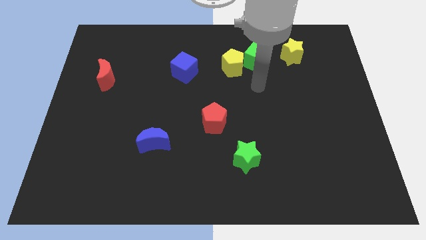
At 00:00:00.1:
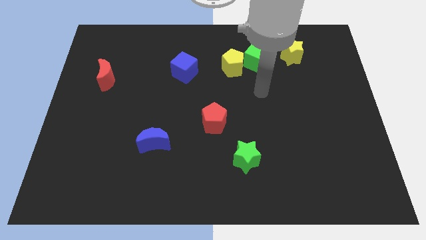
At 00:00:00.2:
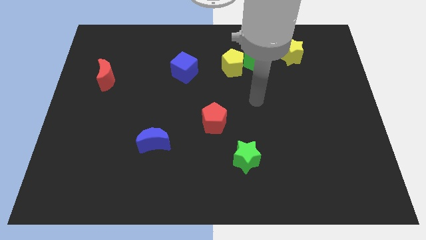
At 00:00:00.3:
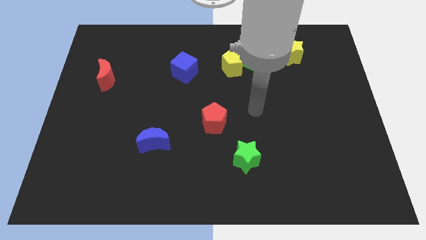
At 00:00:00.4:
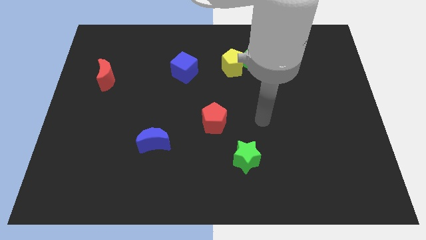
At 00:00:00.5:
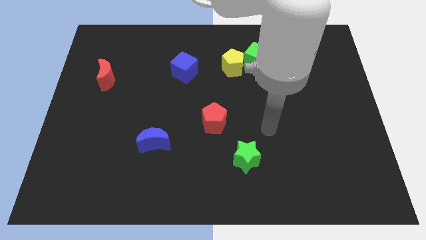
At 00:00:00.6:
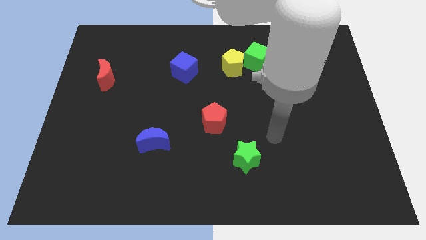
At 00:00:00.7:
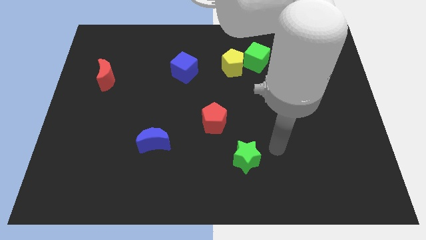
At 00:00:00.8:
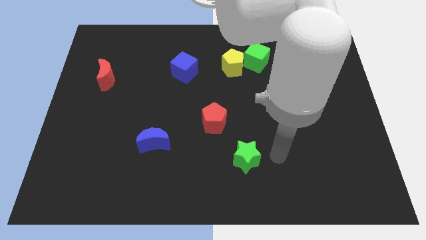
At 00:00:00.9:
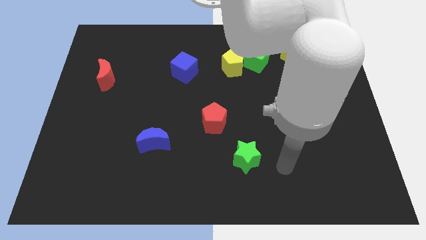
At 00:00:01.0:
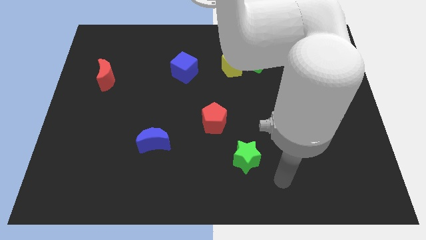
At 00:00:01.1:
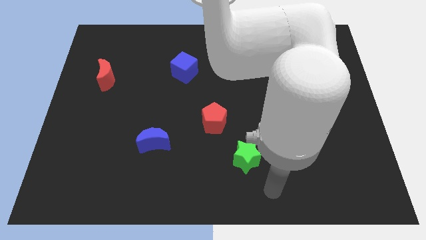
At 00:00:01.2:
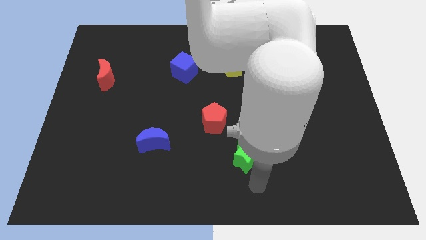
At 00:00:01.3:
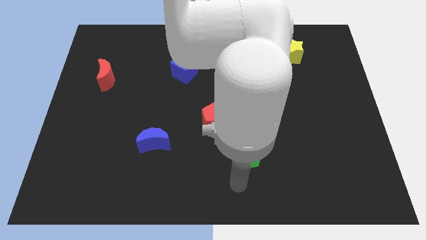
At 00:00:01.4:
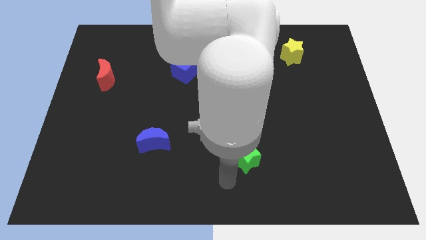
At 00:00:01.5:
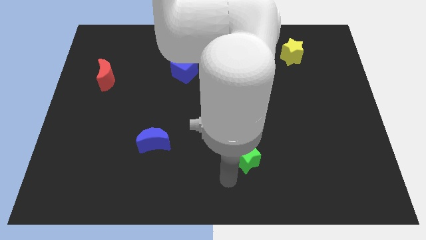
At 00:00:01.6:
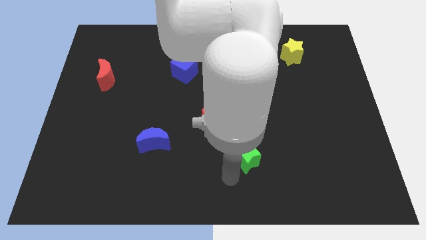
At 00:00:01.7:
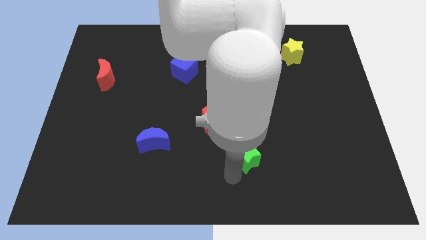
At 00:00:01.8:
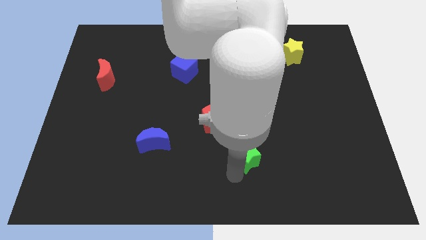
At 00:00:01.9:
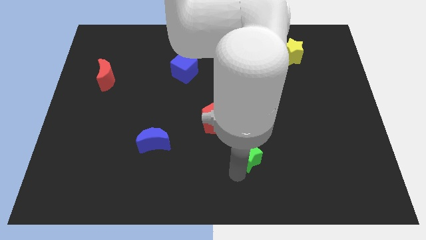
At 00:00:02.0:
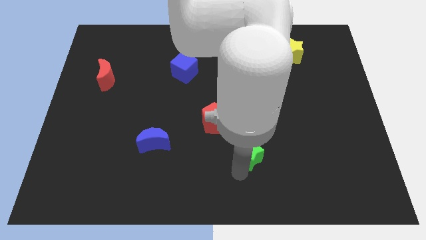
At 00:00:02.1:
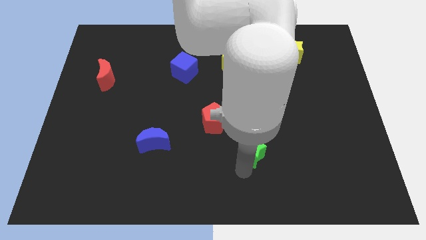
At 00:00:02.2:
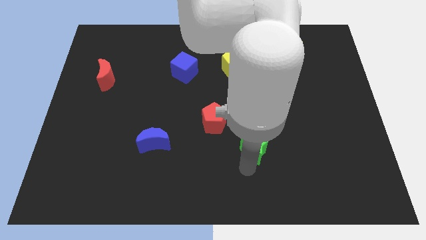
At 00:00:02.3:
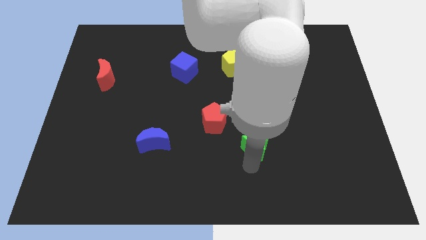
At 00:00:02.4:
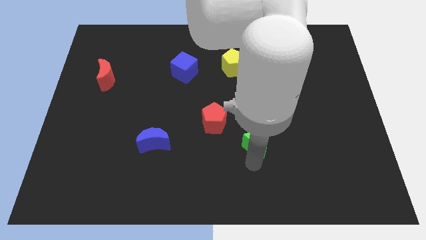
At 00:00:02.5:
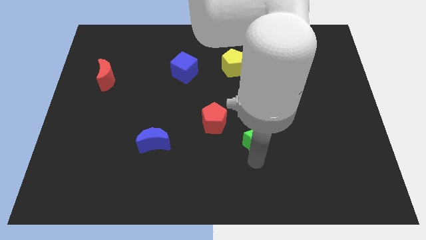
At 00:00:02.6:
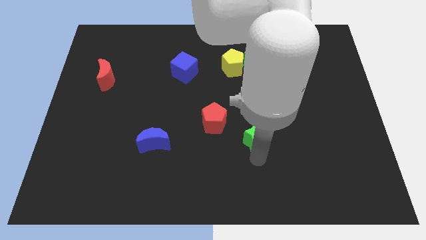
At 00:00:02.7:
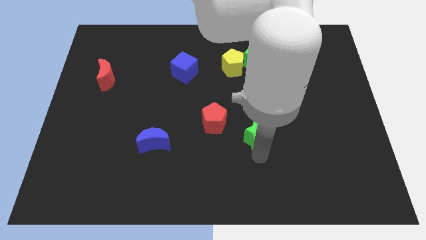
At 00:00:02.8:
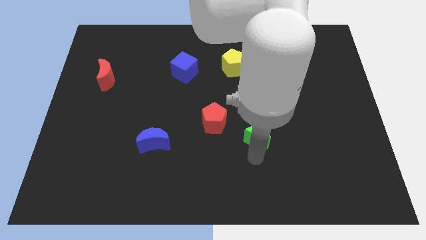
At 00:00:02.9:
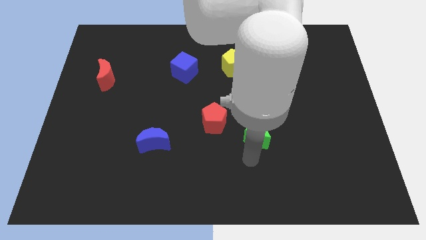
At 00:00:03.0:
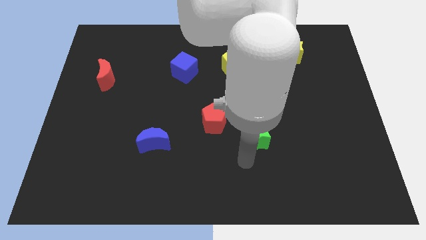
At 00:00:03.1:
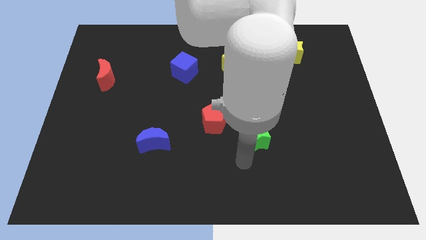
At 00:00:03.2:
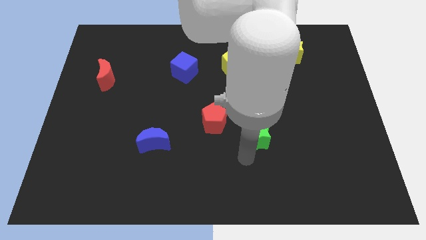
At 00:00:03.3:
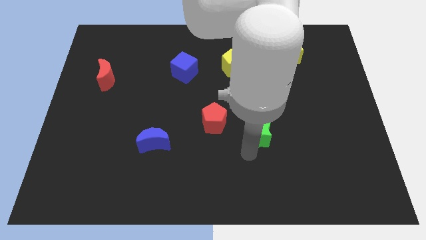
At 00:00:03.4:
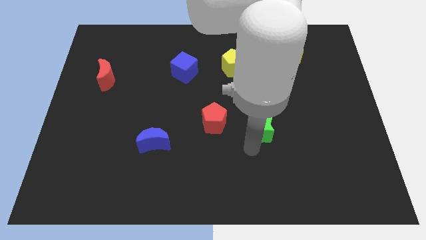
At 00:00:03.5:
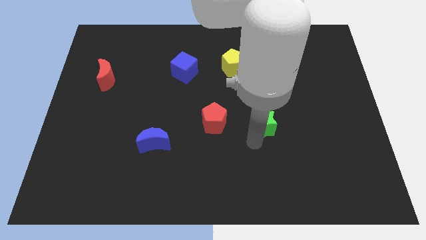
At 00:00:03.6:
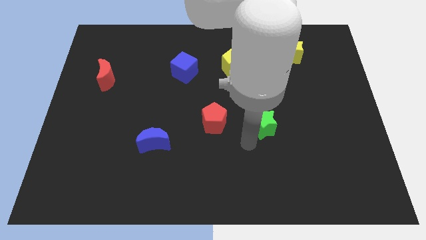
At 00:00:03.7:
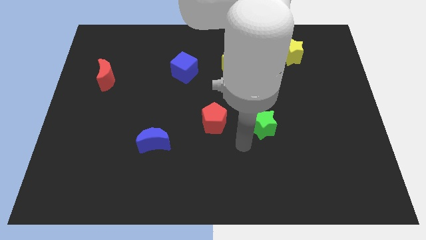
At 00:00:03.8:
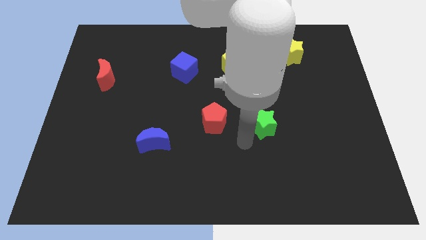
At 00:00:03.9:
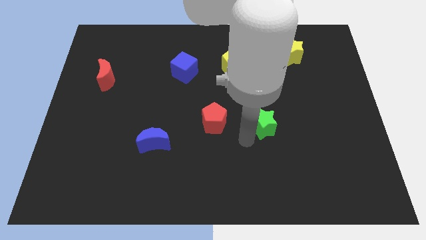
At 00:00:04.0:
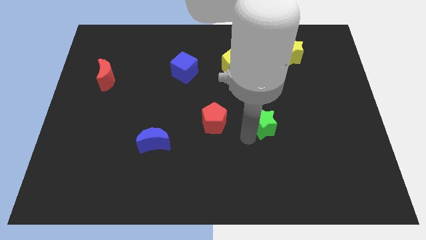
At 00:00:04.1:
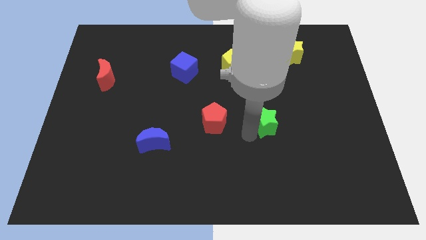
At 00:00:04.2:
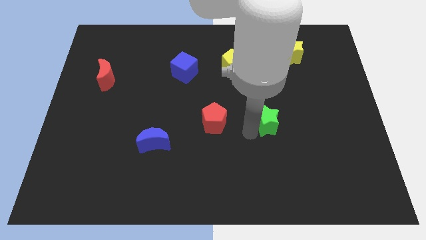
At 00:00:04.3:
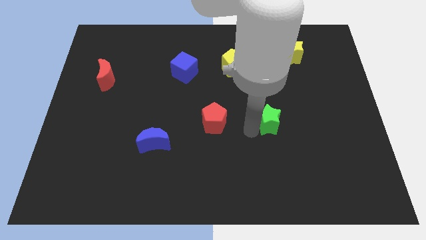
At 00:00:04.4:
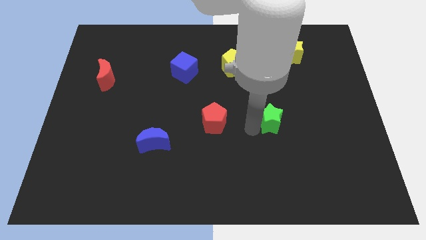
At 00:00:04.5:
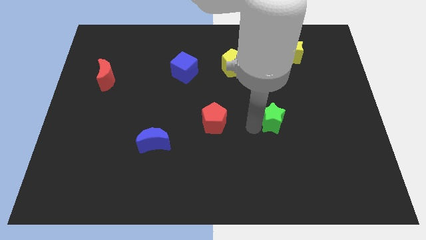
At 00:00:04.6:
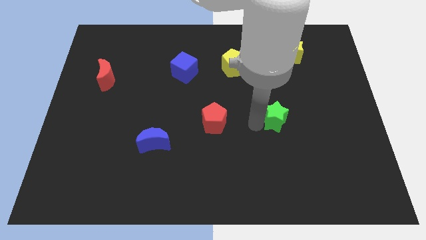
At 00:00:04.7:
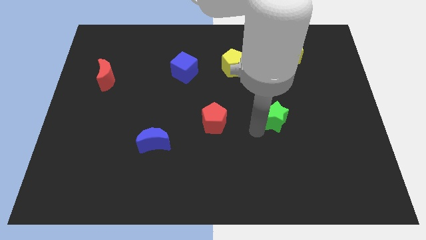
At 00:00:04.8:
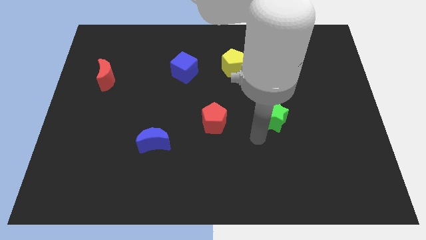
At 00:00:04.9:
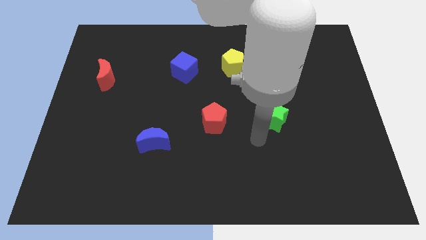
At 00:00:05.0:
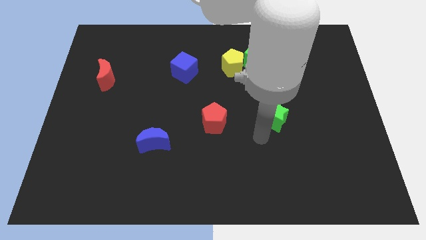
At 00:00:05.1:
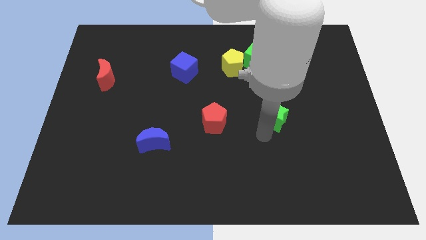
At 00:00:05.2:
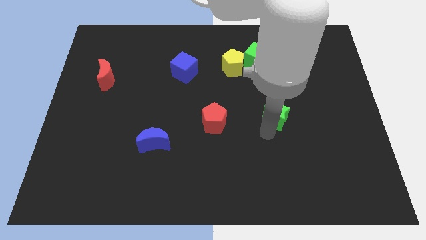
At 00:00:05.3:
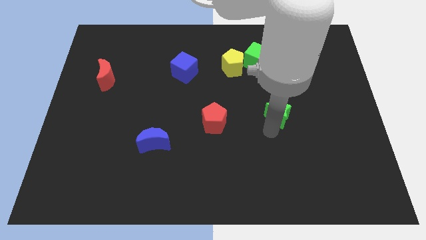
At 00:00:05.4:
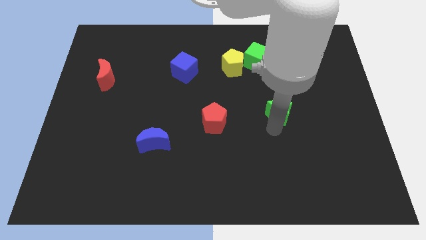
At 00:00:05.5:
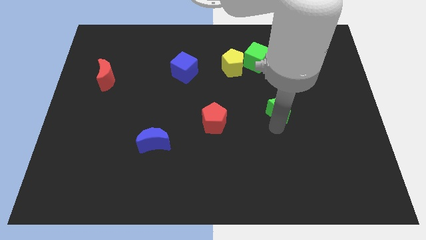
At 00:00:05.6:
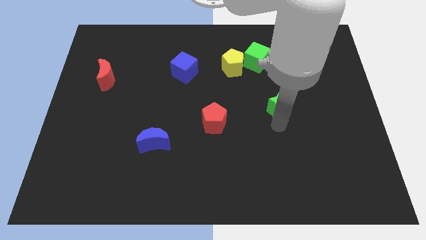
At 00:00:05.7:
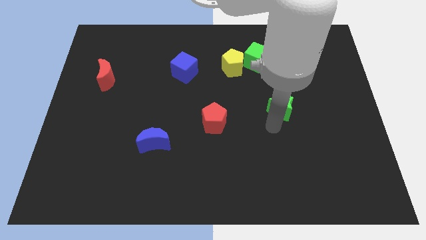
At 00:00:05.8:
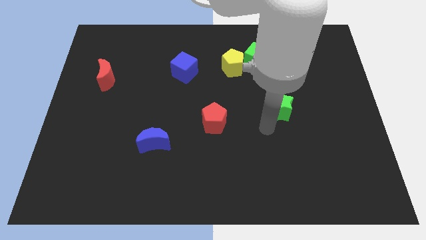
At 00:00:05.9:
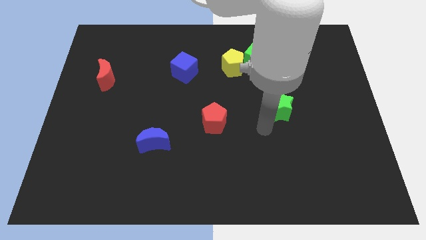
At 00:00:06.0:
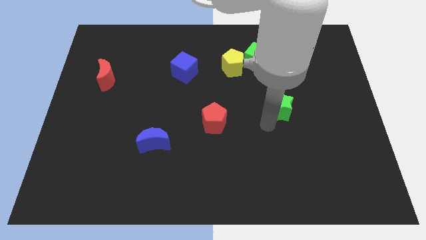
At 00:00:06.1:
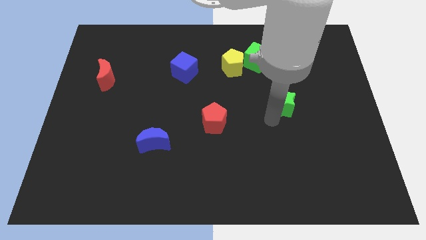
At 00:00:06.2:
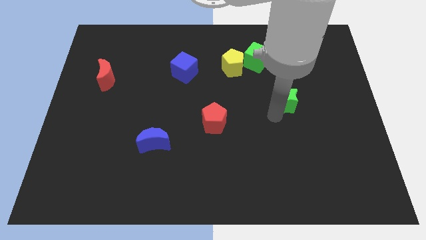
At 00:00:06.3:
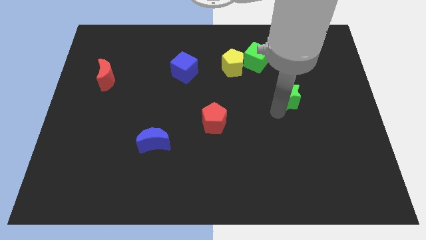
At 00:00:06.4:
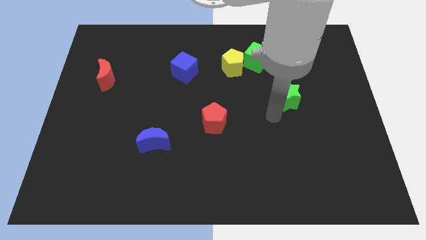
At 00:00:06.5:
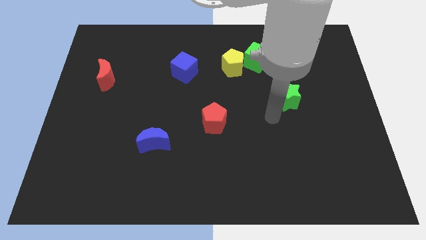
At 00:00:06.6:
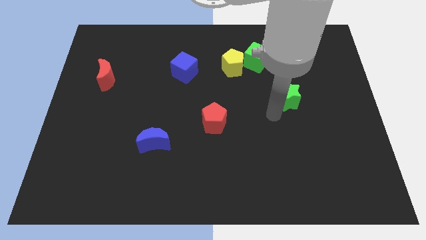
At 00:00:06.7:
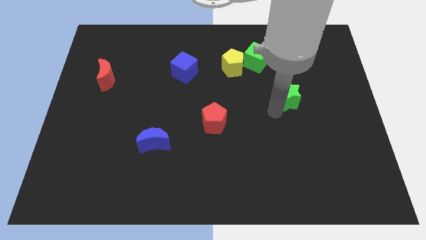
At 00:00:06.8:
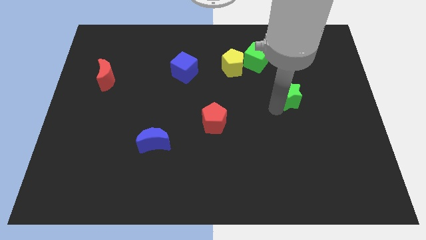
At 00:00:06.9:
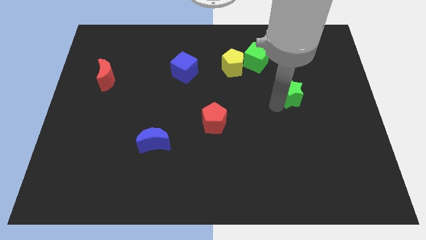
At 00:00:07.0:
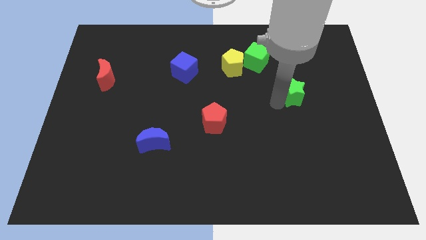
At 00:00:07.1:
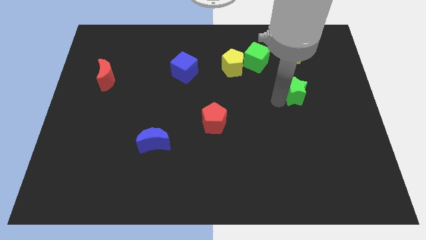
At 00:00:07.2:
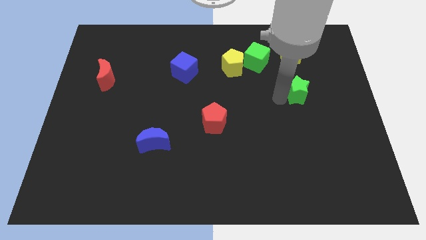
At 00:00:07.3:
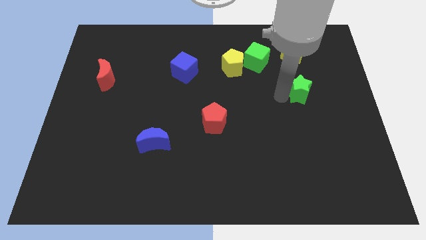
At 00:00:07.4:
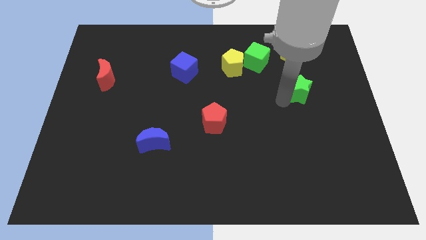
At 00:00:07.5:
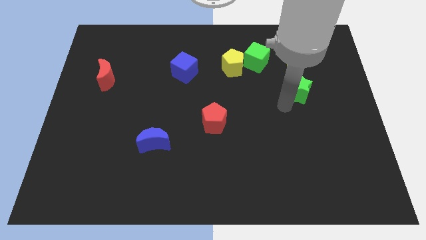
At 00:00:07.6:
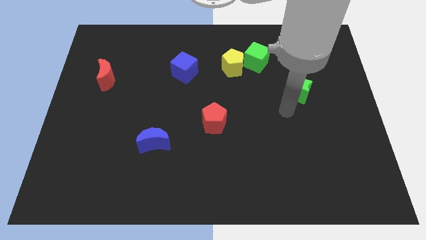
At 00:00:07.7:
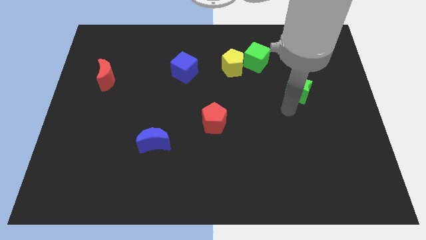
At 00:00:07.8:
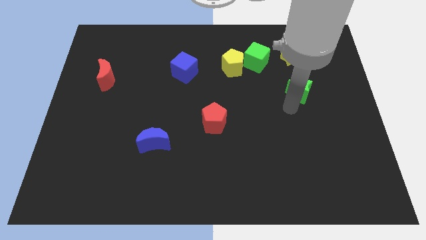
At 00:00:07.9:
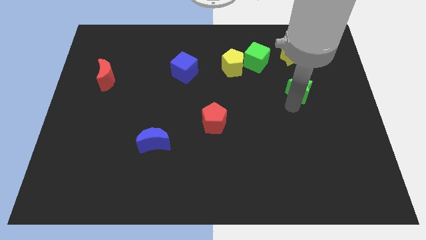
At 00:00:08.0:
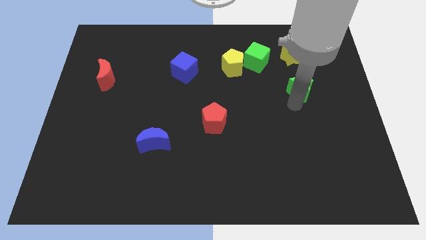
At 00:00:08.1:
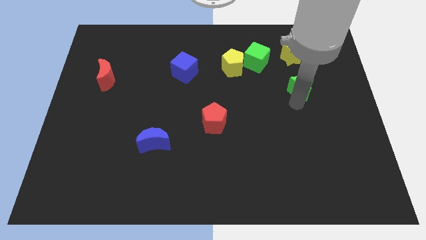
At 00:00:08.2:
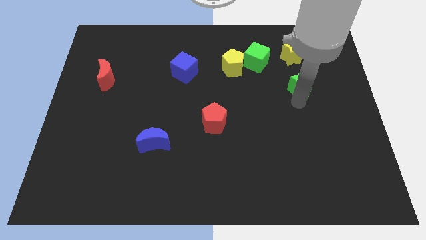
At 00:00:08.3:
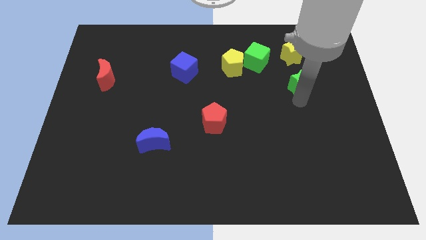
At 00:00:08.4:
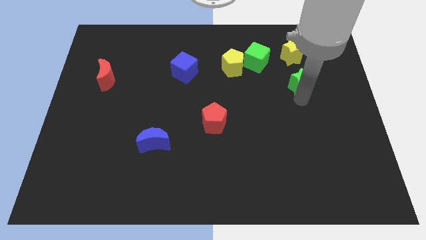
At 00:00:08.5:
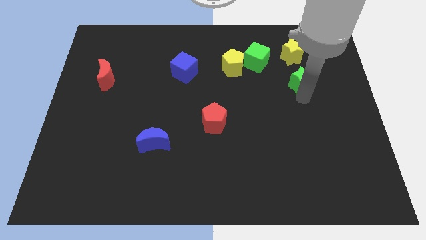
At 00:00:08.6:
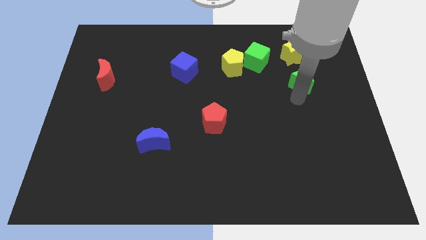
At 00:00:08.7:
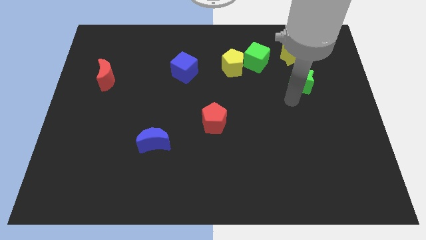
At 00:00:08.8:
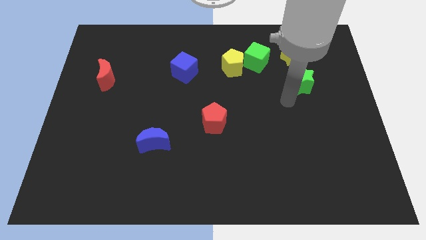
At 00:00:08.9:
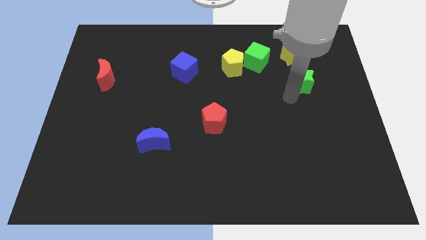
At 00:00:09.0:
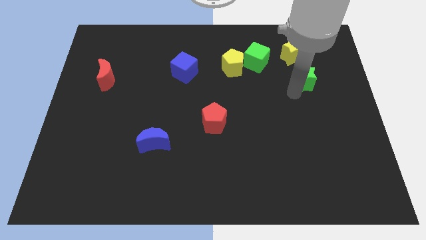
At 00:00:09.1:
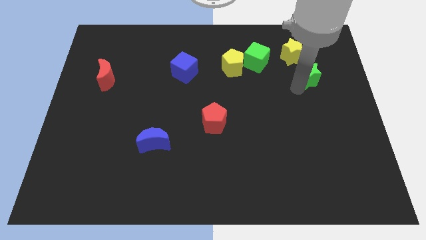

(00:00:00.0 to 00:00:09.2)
move the green star to the bottom right of the yellow star
